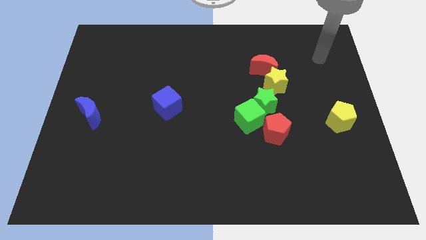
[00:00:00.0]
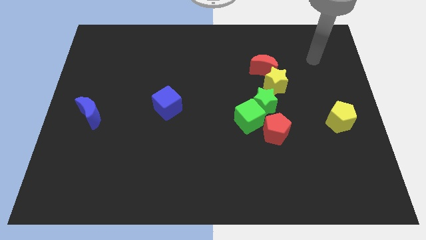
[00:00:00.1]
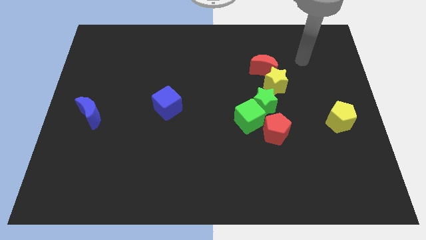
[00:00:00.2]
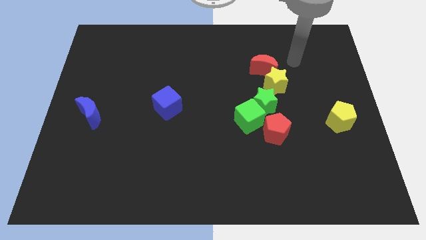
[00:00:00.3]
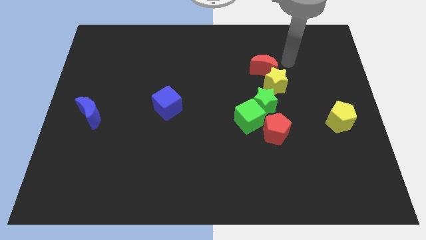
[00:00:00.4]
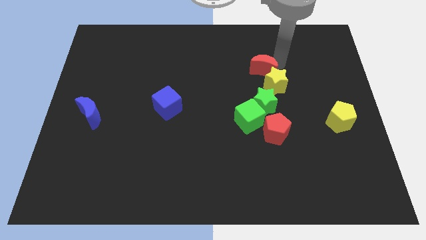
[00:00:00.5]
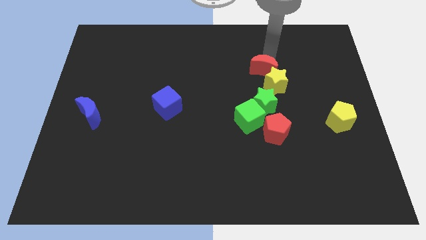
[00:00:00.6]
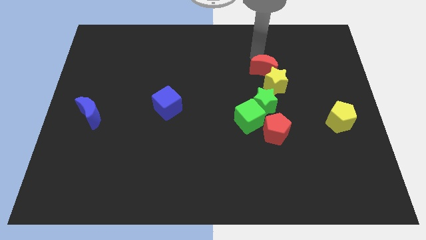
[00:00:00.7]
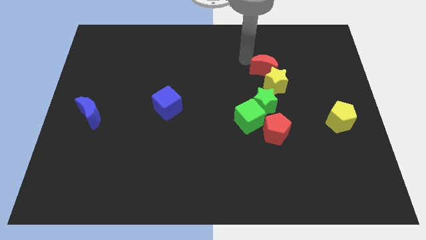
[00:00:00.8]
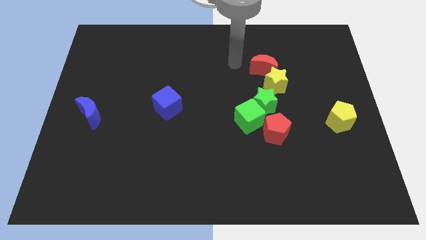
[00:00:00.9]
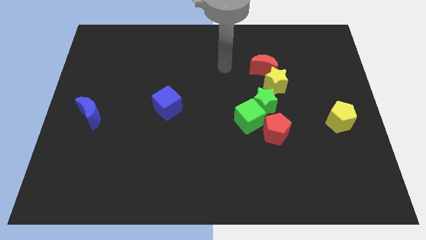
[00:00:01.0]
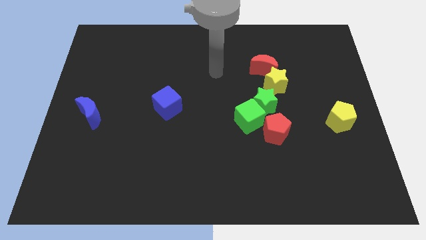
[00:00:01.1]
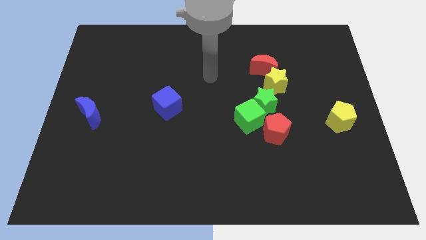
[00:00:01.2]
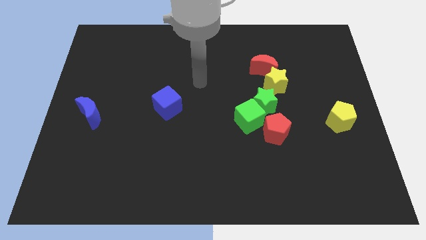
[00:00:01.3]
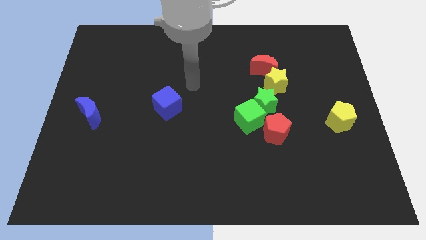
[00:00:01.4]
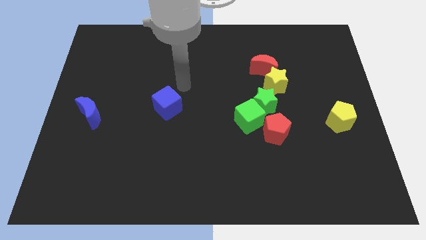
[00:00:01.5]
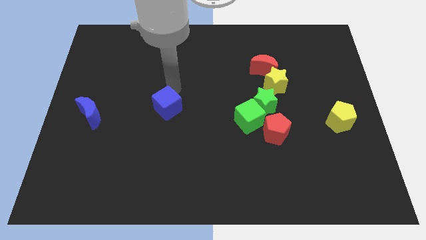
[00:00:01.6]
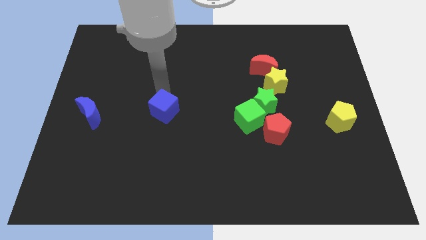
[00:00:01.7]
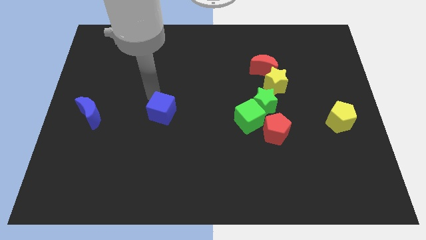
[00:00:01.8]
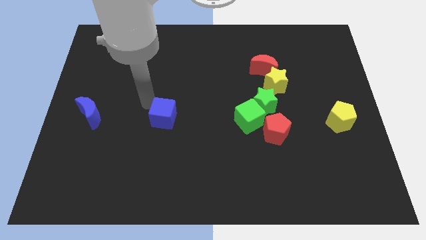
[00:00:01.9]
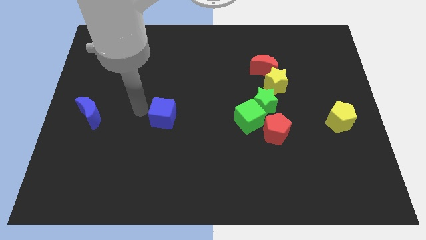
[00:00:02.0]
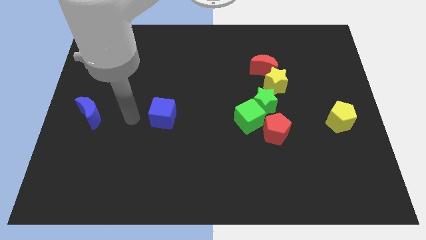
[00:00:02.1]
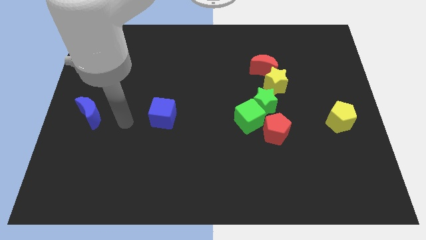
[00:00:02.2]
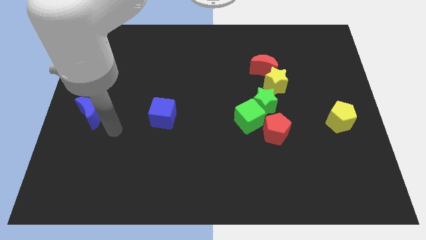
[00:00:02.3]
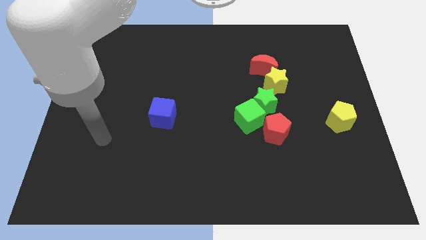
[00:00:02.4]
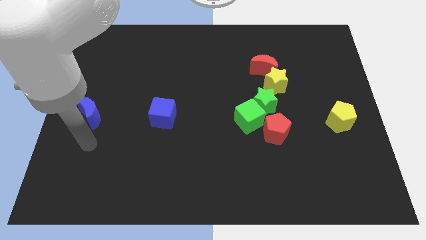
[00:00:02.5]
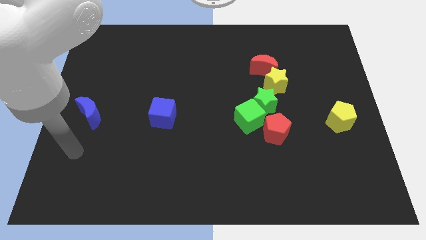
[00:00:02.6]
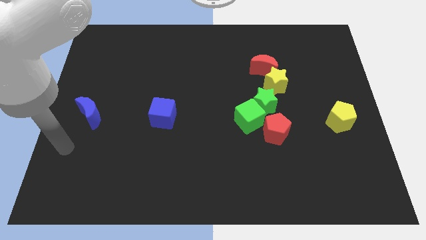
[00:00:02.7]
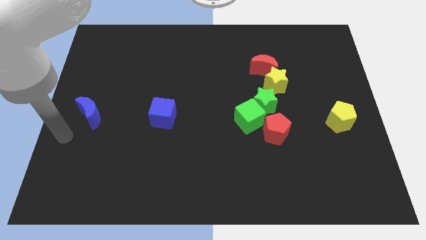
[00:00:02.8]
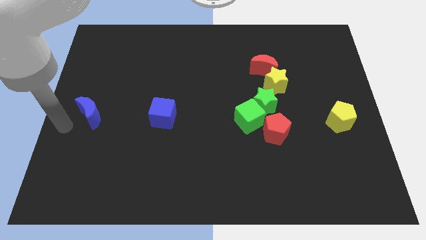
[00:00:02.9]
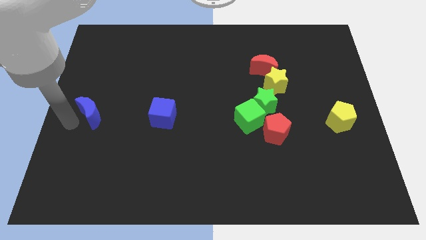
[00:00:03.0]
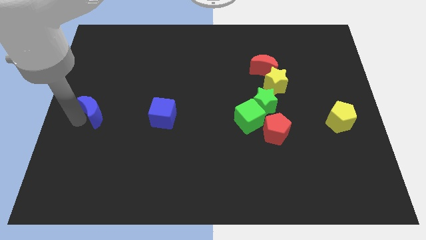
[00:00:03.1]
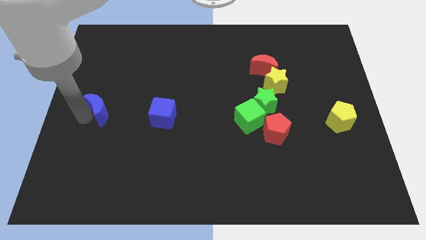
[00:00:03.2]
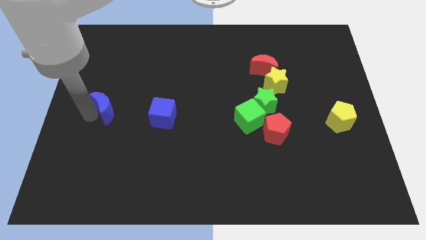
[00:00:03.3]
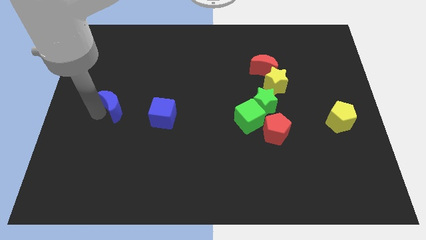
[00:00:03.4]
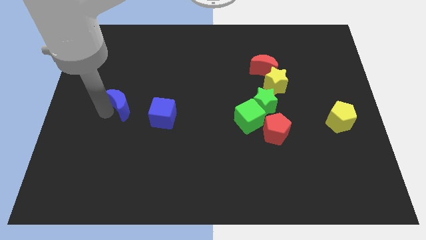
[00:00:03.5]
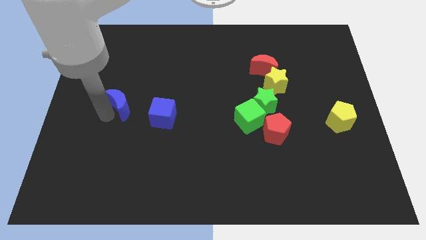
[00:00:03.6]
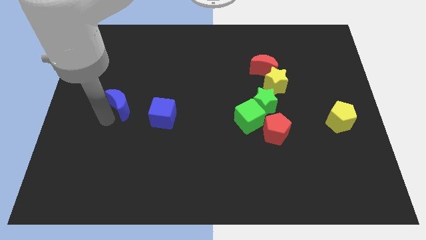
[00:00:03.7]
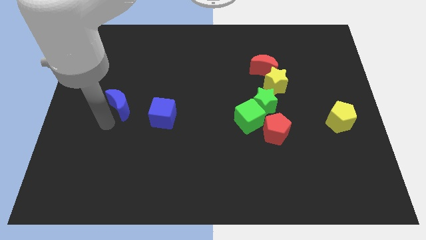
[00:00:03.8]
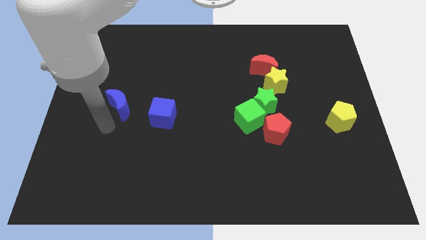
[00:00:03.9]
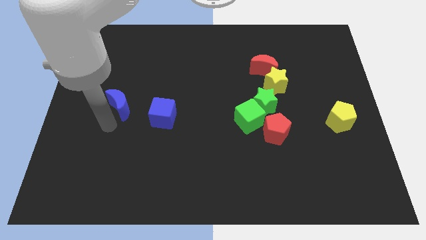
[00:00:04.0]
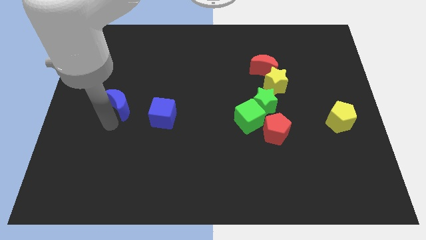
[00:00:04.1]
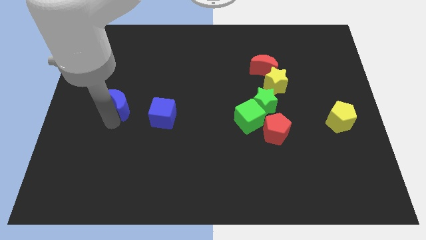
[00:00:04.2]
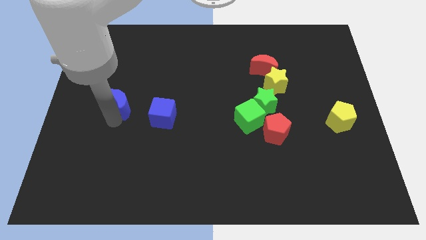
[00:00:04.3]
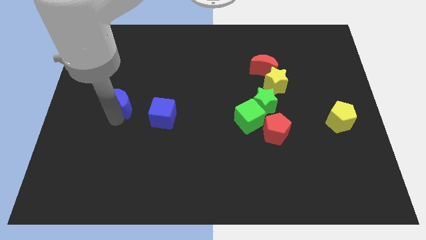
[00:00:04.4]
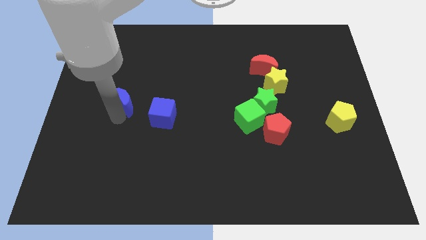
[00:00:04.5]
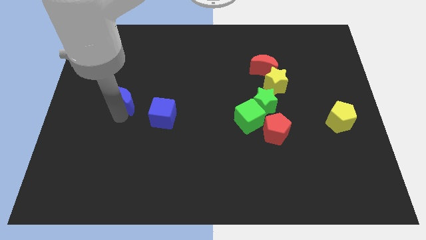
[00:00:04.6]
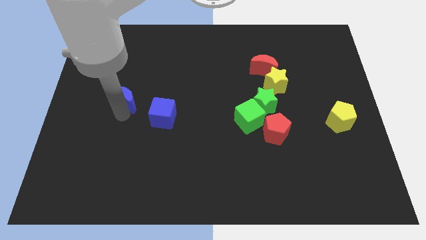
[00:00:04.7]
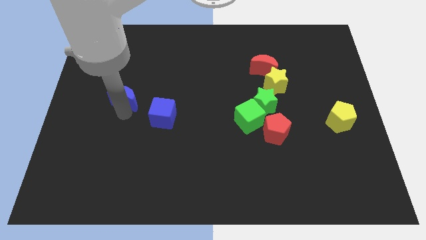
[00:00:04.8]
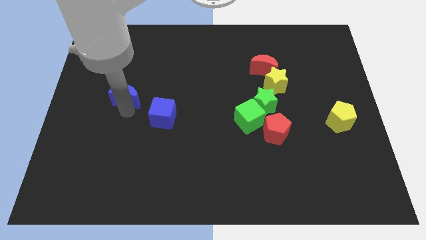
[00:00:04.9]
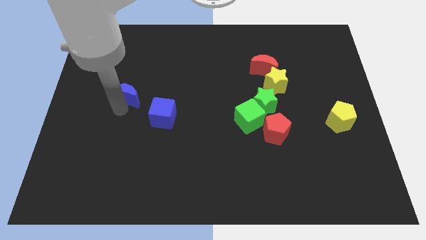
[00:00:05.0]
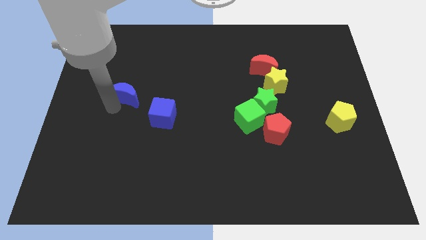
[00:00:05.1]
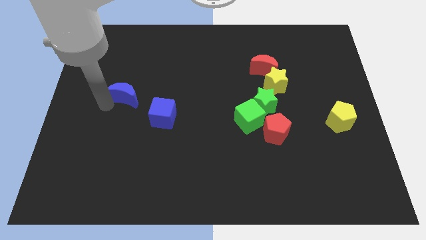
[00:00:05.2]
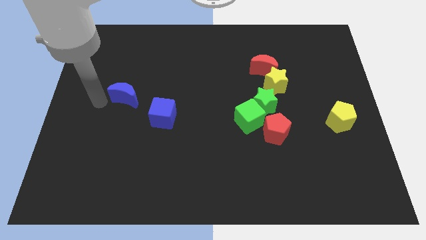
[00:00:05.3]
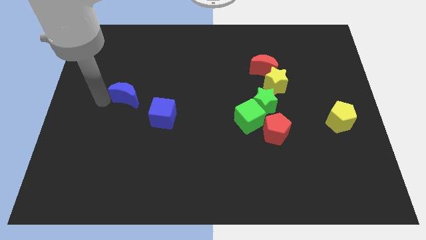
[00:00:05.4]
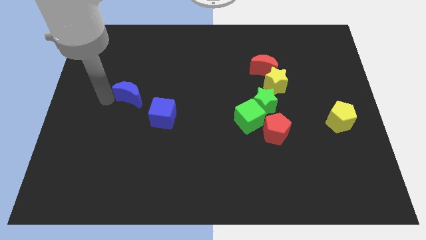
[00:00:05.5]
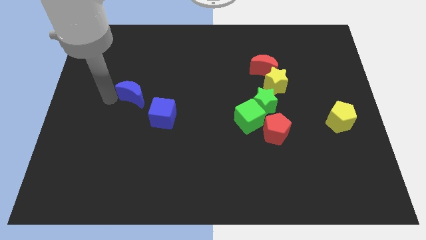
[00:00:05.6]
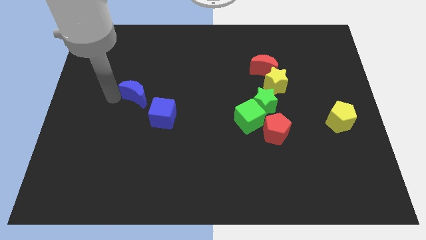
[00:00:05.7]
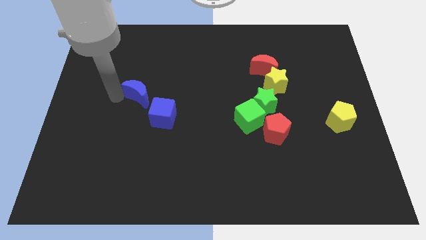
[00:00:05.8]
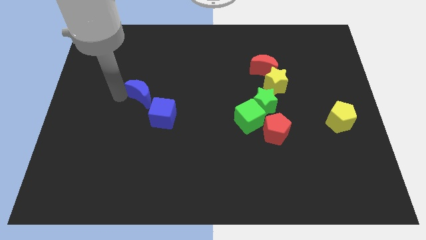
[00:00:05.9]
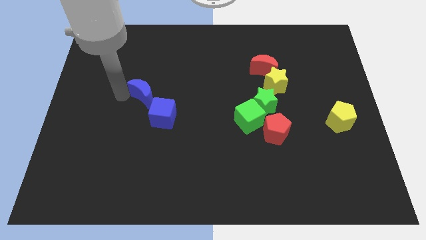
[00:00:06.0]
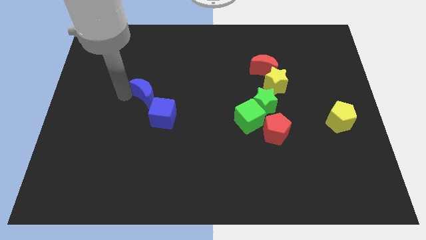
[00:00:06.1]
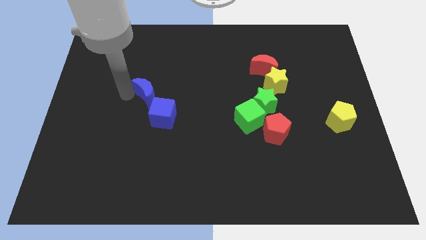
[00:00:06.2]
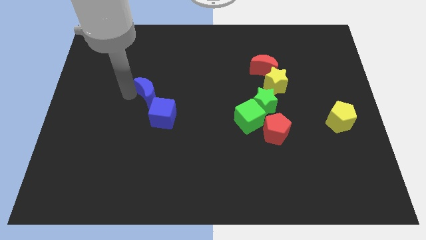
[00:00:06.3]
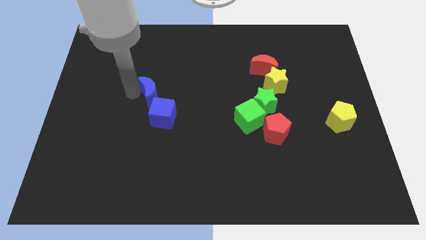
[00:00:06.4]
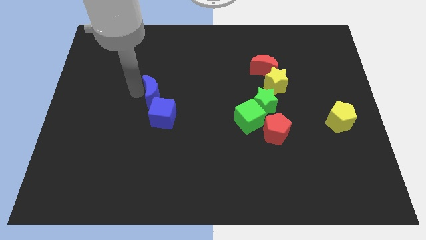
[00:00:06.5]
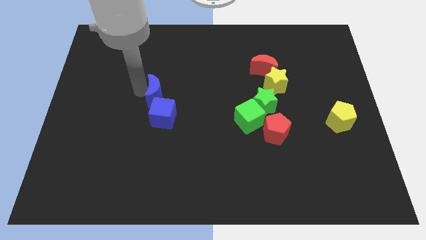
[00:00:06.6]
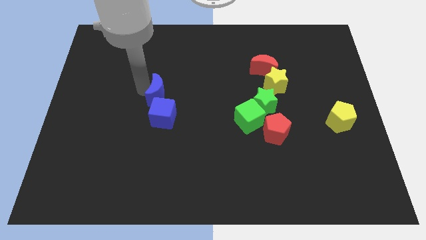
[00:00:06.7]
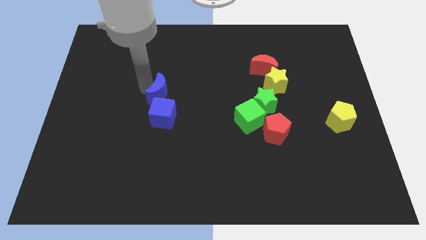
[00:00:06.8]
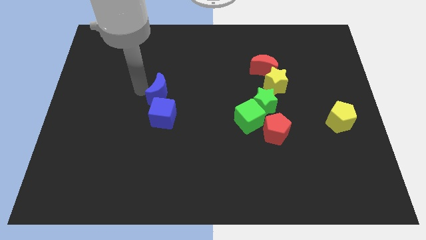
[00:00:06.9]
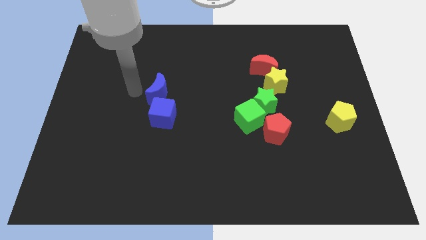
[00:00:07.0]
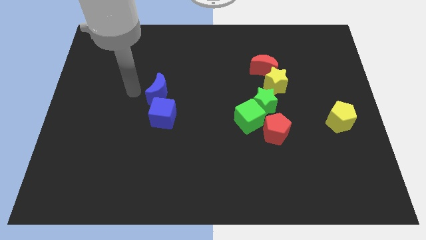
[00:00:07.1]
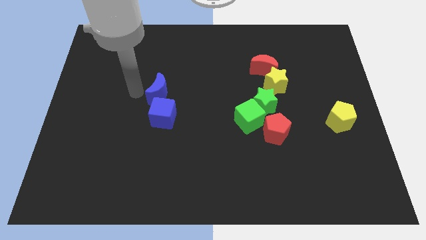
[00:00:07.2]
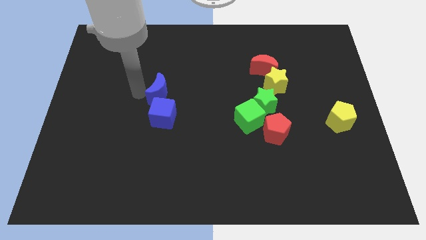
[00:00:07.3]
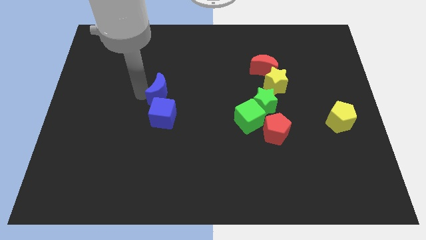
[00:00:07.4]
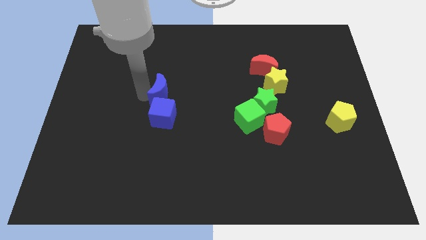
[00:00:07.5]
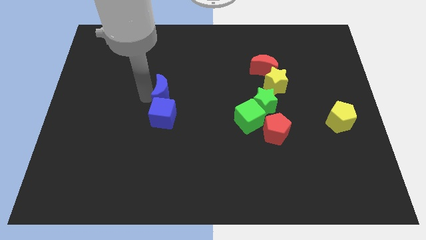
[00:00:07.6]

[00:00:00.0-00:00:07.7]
put the blue moon to the middle of the board
